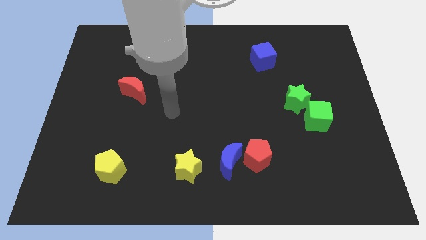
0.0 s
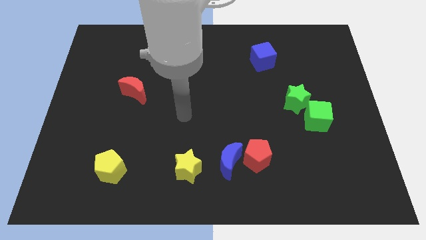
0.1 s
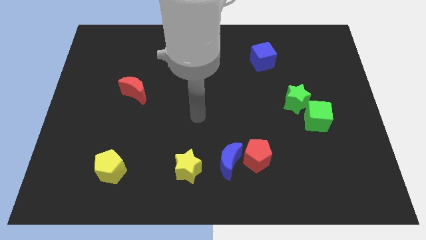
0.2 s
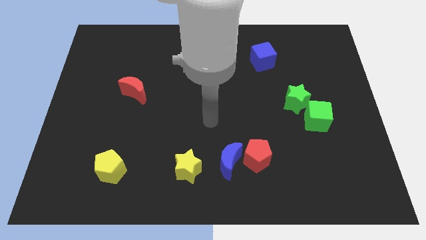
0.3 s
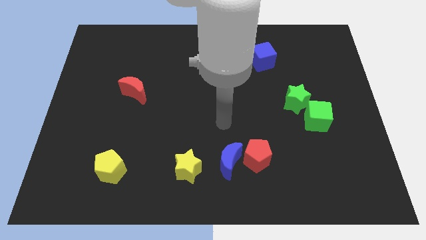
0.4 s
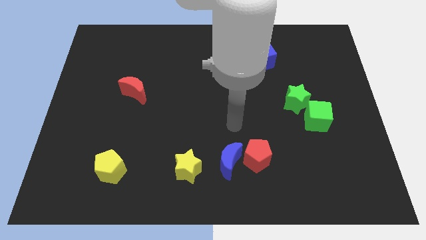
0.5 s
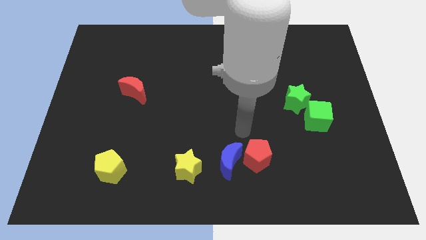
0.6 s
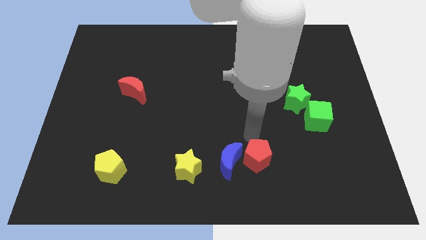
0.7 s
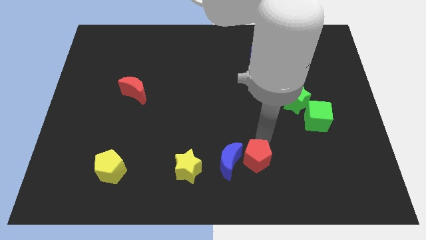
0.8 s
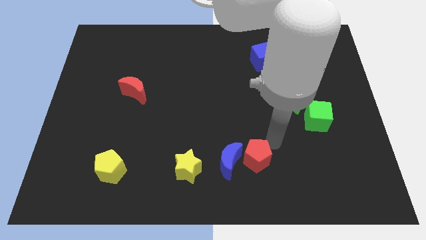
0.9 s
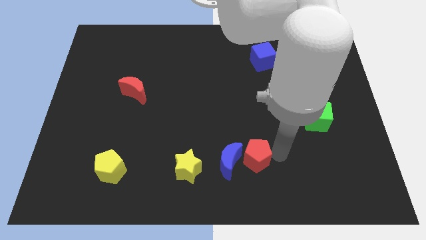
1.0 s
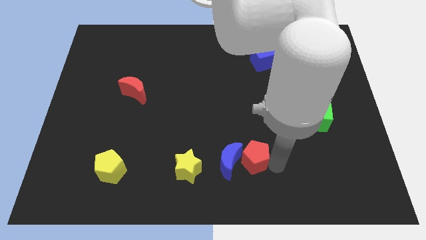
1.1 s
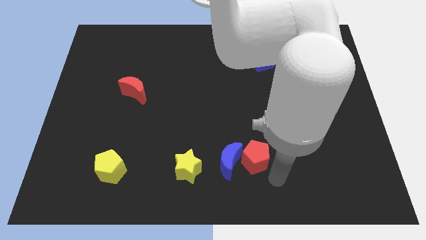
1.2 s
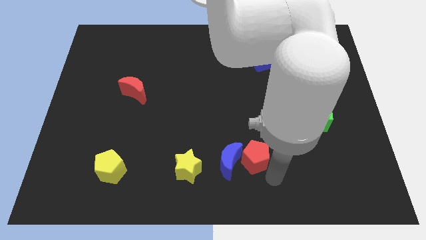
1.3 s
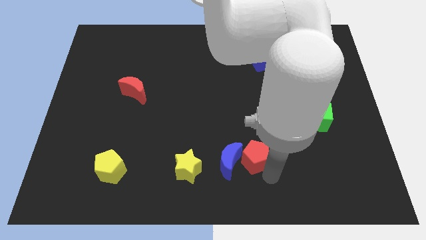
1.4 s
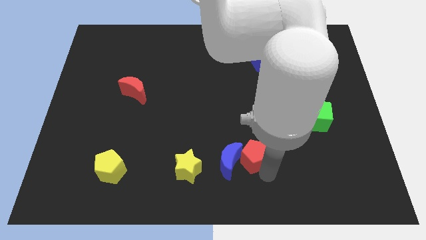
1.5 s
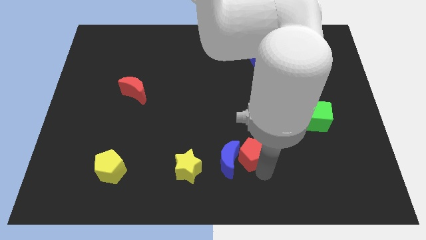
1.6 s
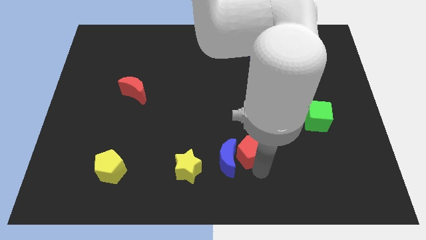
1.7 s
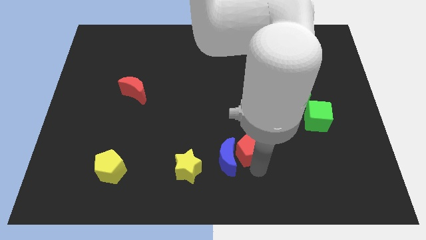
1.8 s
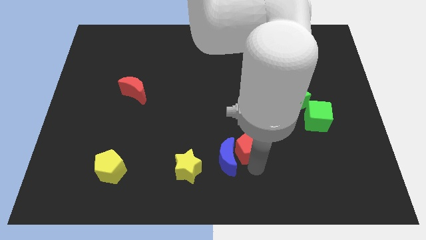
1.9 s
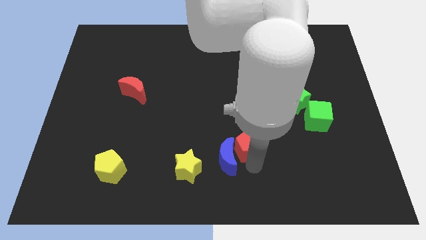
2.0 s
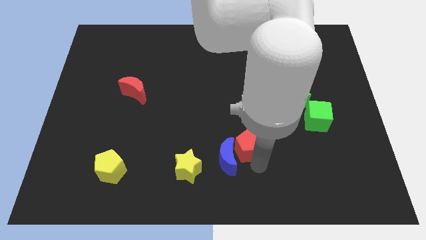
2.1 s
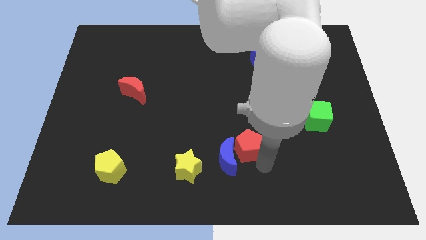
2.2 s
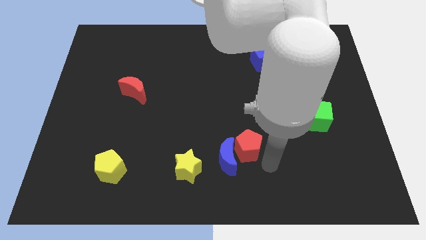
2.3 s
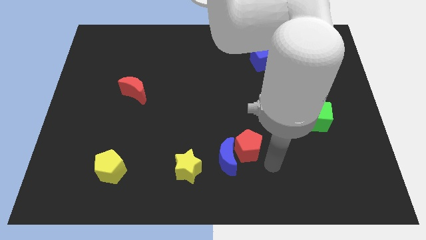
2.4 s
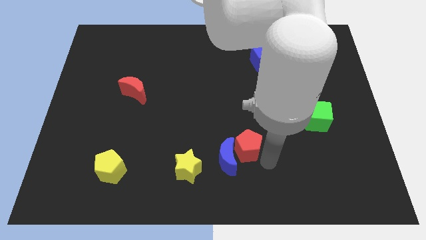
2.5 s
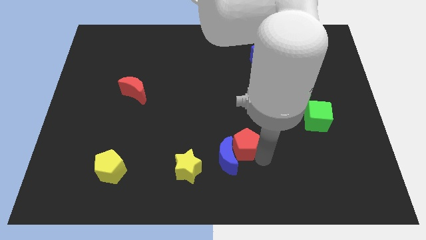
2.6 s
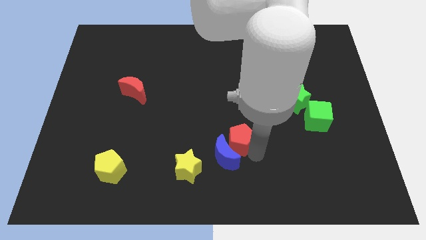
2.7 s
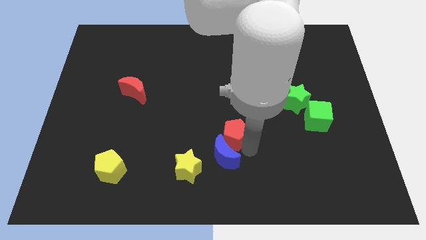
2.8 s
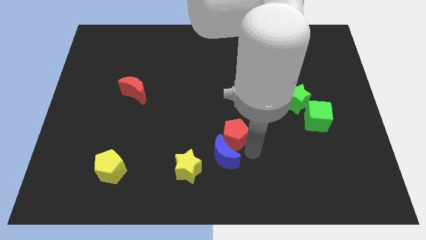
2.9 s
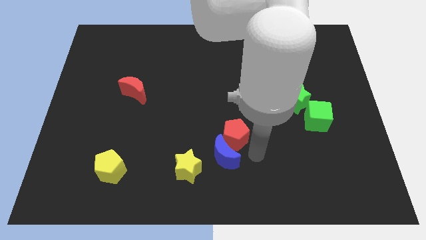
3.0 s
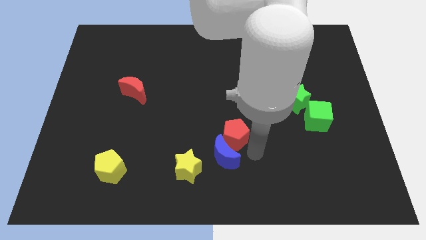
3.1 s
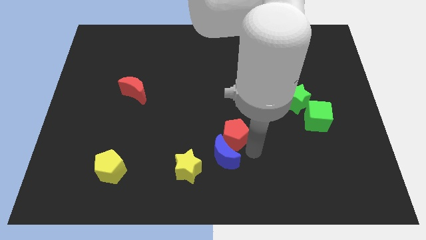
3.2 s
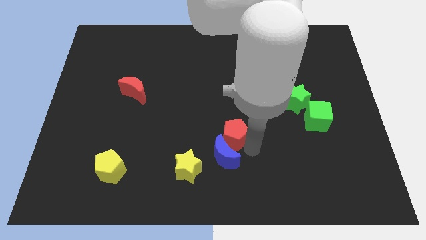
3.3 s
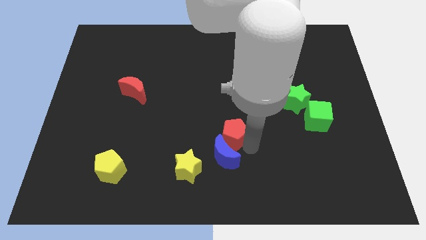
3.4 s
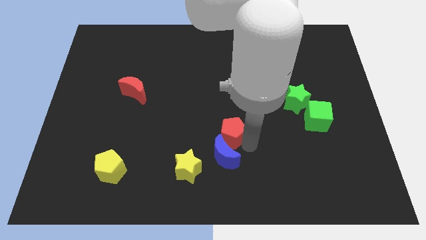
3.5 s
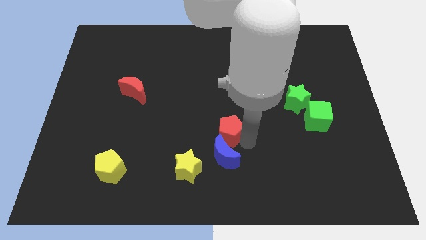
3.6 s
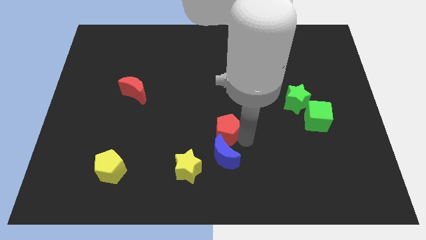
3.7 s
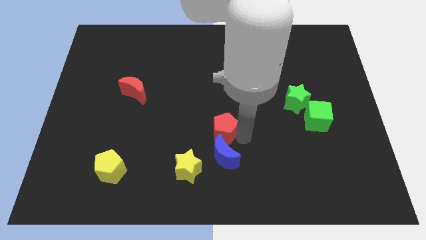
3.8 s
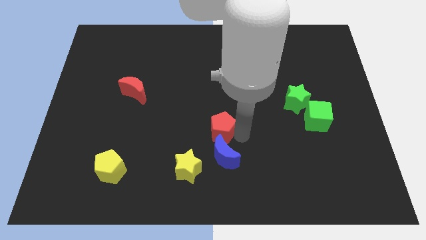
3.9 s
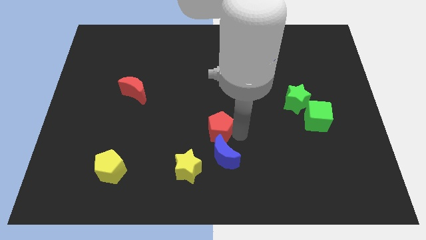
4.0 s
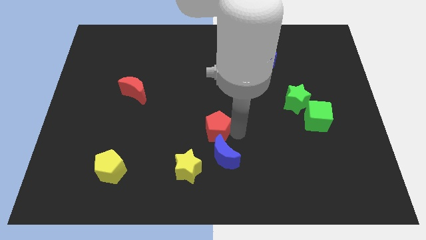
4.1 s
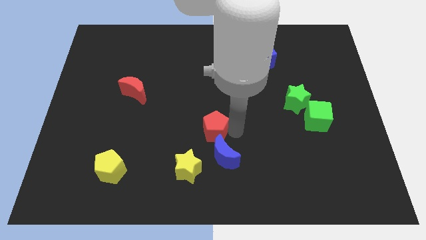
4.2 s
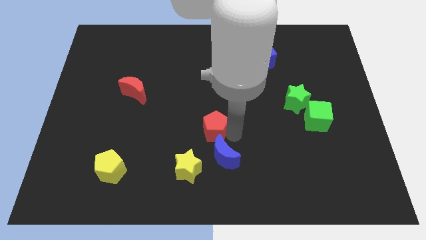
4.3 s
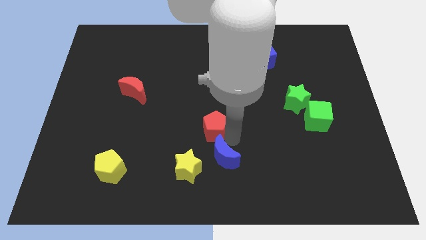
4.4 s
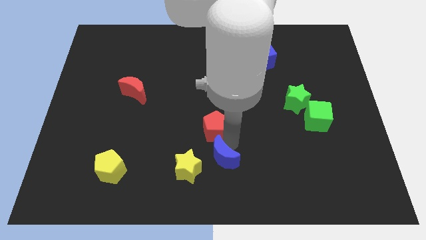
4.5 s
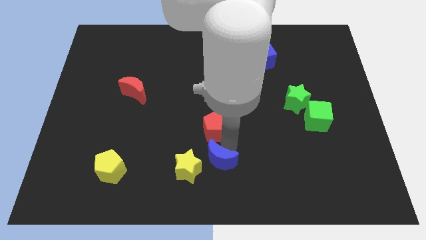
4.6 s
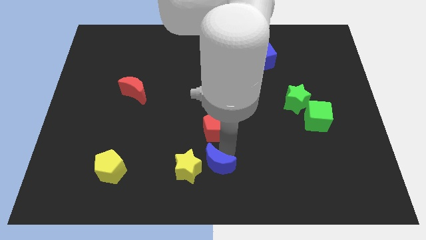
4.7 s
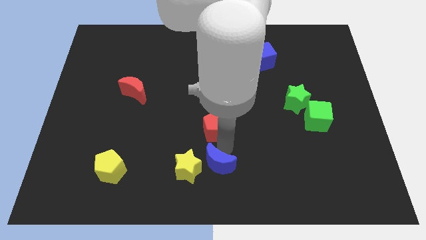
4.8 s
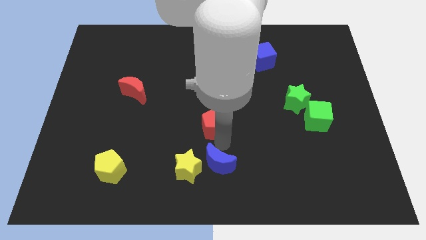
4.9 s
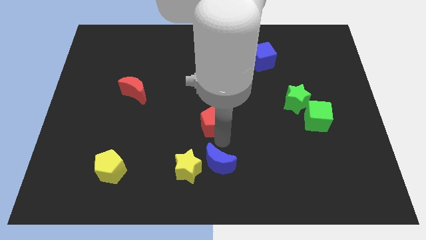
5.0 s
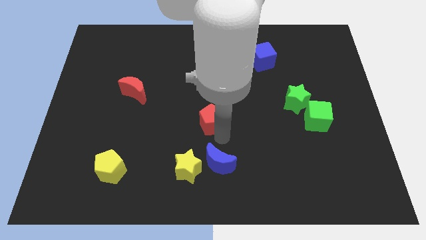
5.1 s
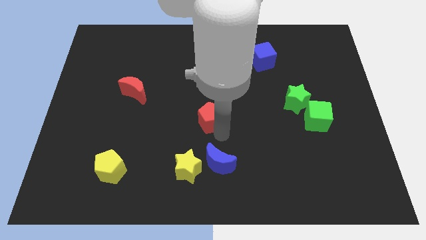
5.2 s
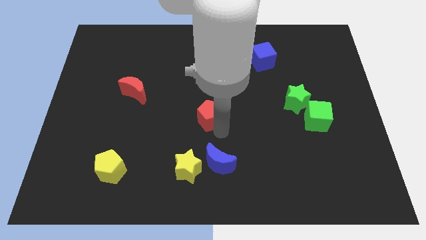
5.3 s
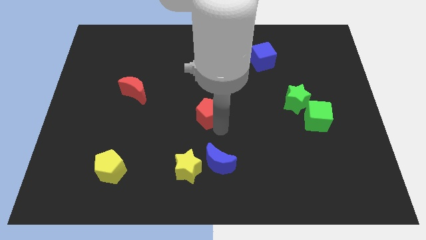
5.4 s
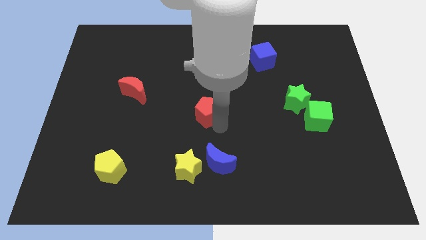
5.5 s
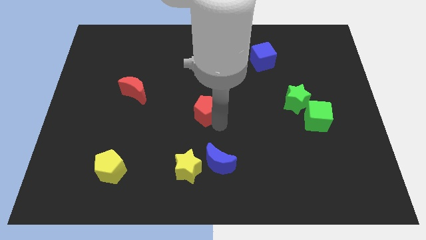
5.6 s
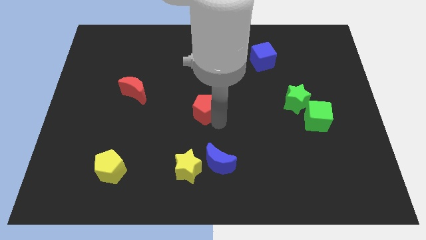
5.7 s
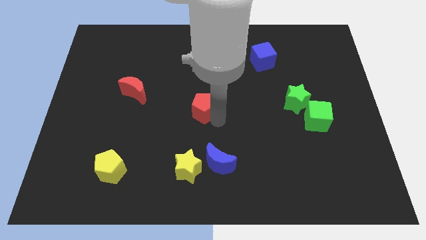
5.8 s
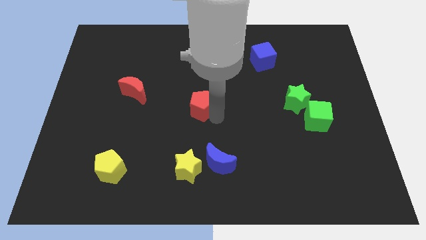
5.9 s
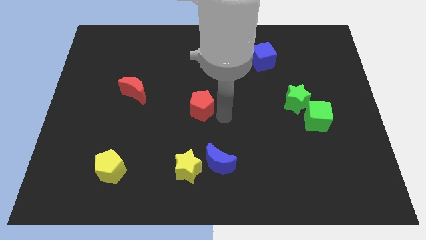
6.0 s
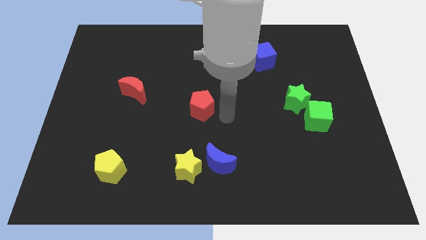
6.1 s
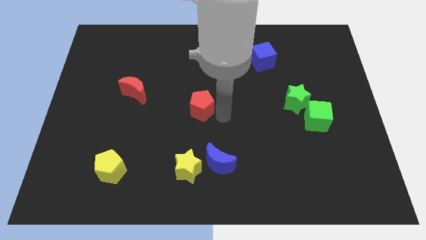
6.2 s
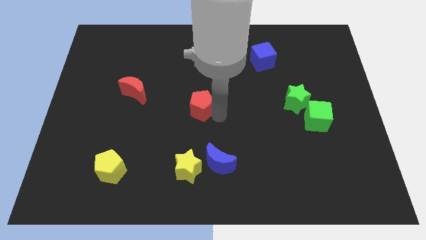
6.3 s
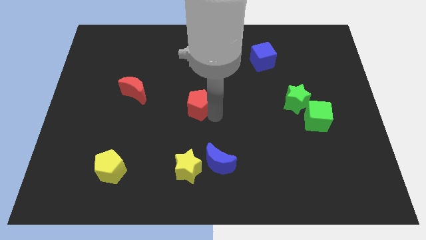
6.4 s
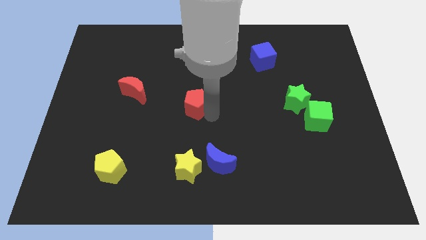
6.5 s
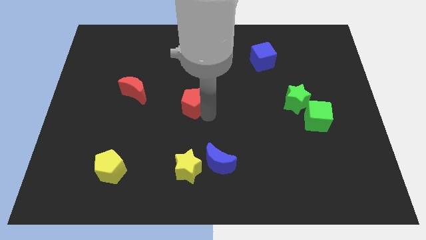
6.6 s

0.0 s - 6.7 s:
push the red pentagon upwards and then left

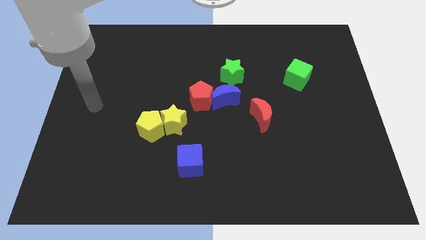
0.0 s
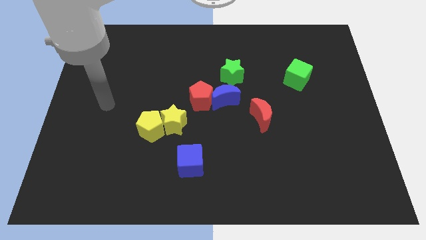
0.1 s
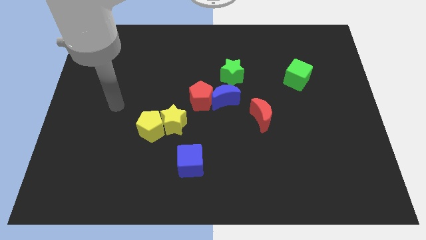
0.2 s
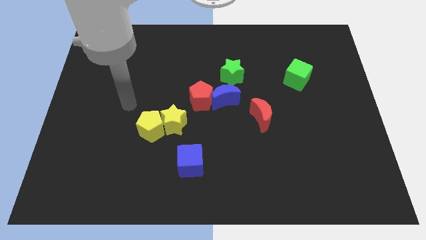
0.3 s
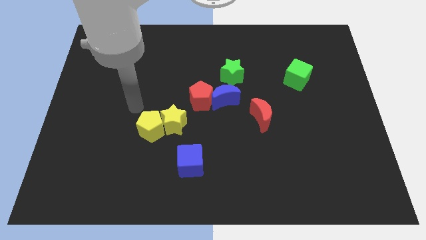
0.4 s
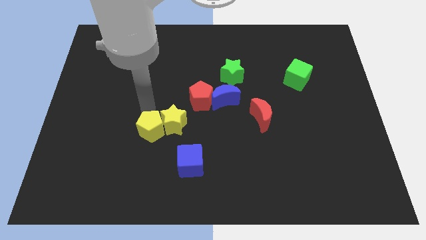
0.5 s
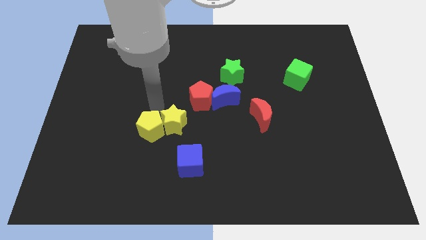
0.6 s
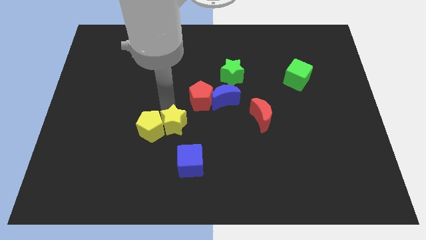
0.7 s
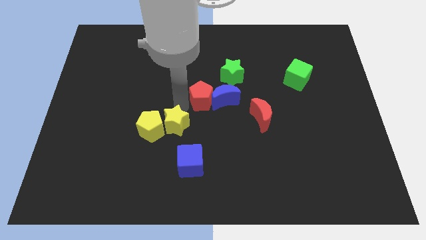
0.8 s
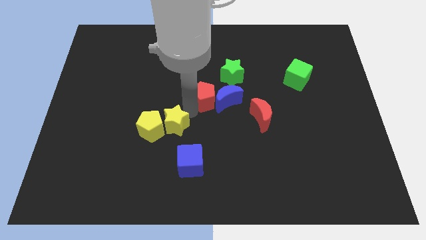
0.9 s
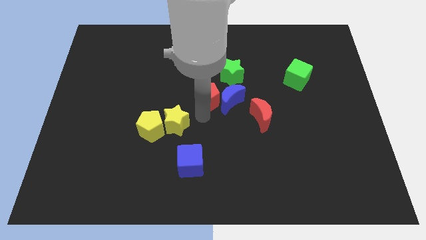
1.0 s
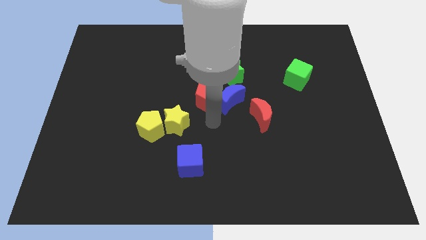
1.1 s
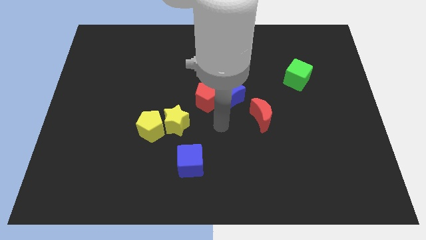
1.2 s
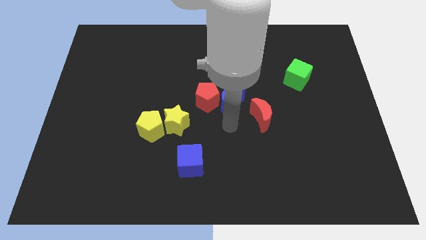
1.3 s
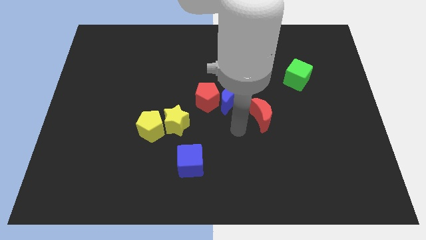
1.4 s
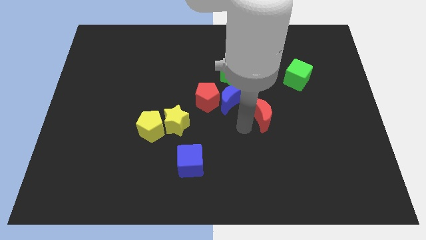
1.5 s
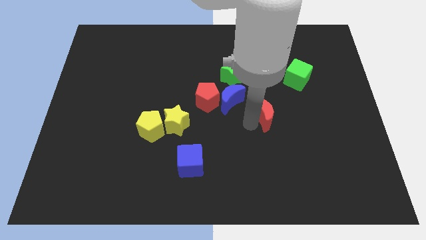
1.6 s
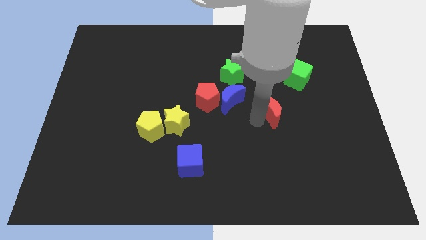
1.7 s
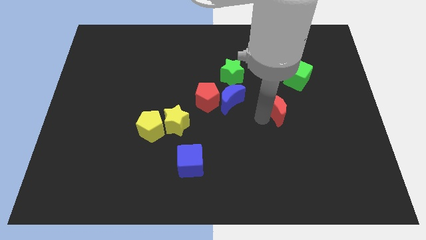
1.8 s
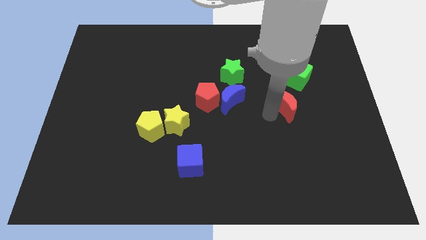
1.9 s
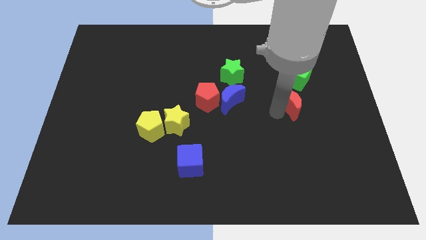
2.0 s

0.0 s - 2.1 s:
slightly slide the red moon up and to the right
